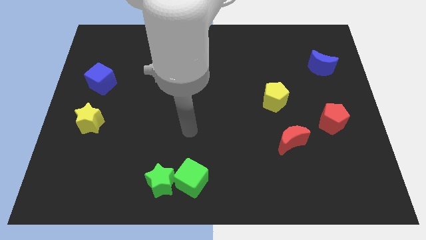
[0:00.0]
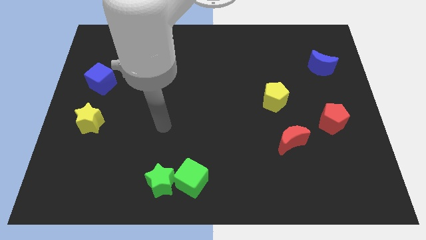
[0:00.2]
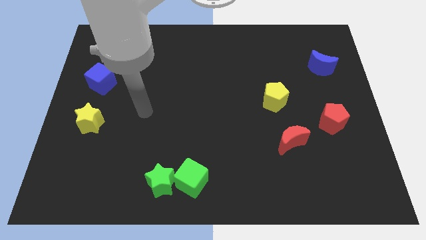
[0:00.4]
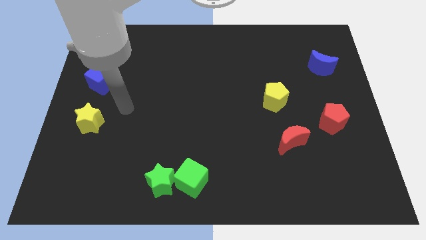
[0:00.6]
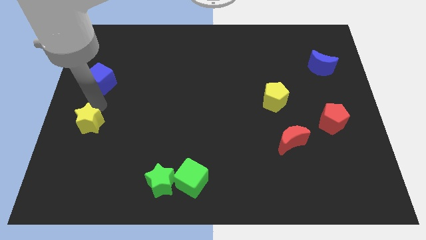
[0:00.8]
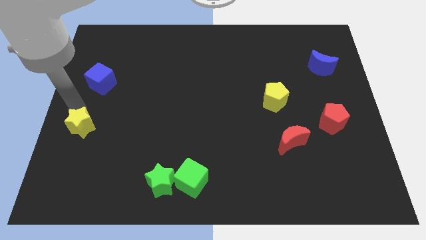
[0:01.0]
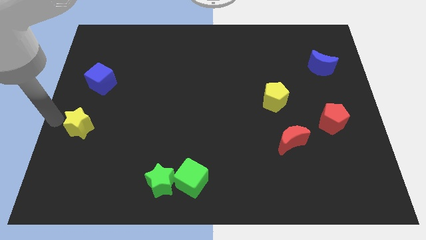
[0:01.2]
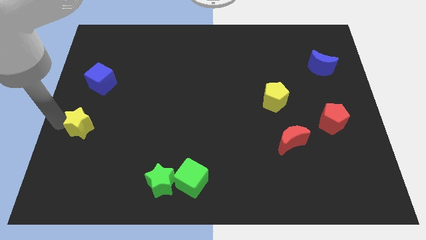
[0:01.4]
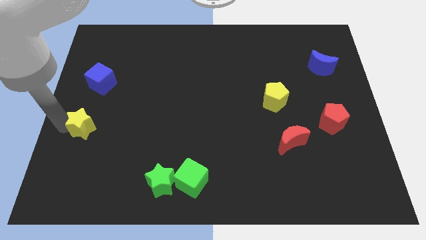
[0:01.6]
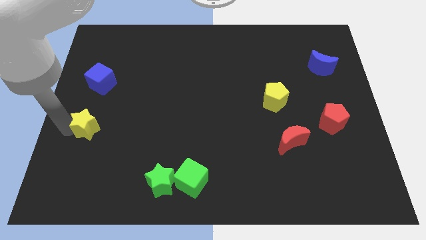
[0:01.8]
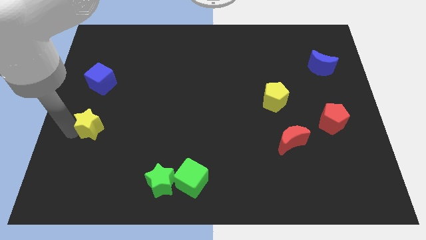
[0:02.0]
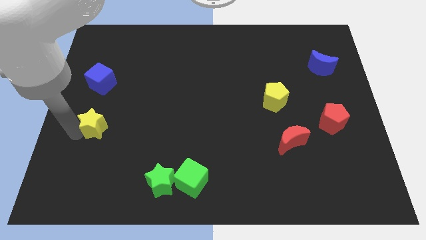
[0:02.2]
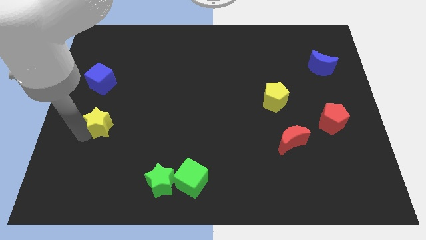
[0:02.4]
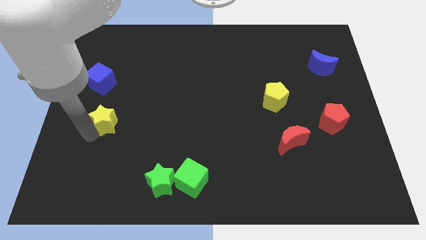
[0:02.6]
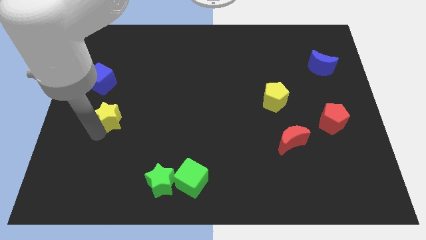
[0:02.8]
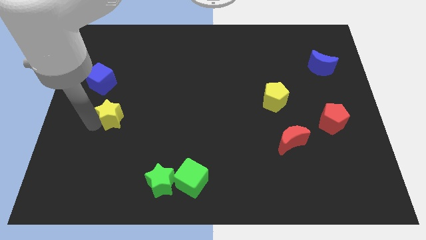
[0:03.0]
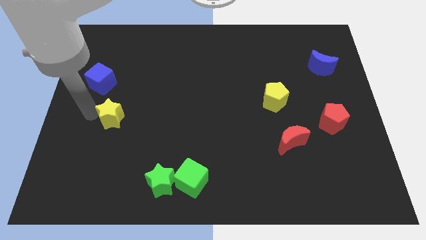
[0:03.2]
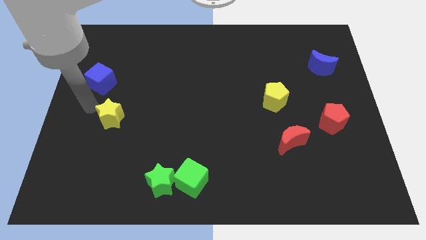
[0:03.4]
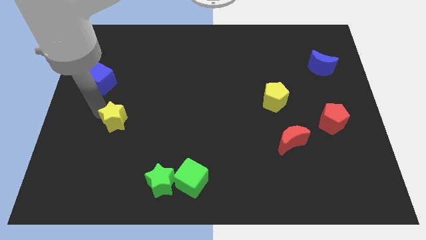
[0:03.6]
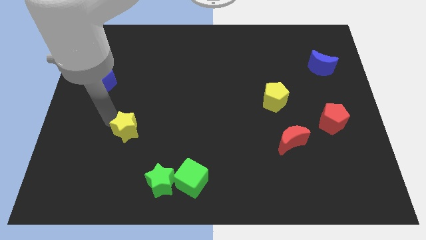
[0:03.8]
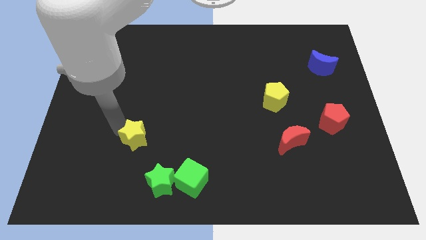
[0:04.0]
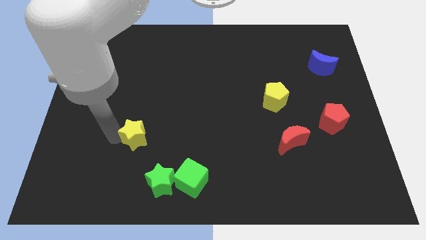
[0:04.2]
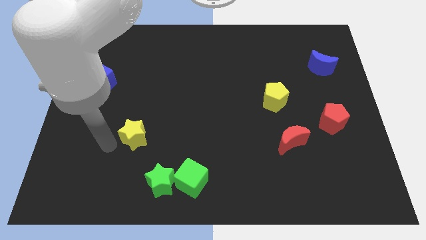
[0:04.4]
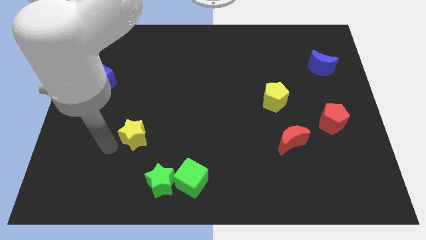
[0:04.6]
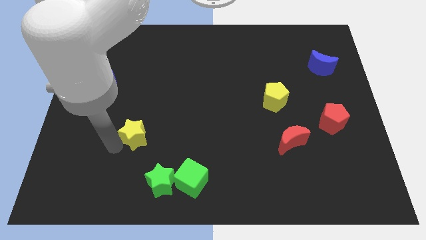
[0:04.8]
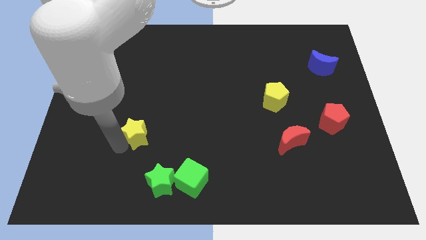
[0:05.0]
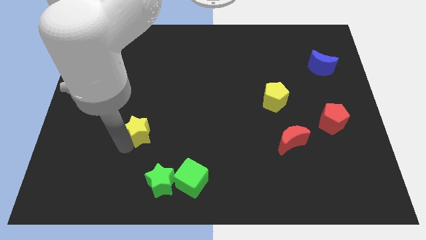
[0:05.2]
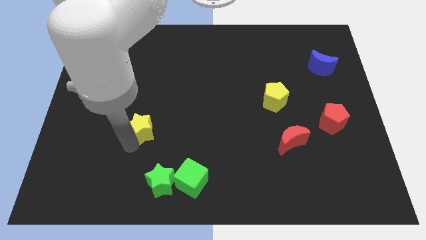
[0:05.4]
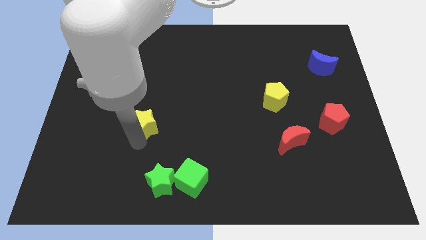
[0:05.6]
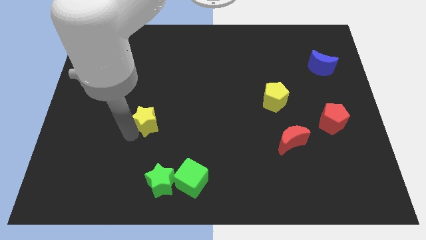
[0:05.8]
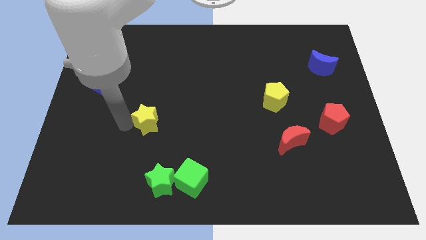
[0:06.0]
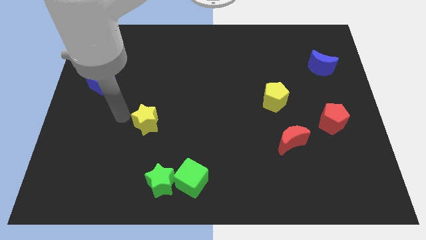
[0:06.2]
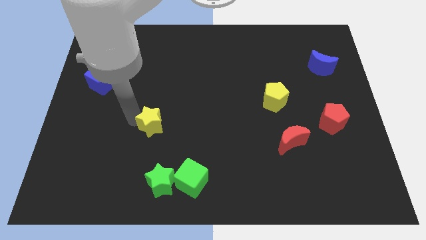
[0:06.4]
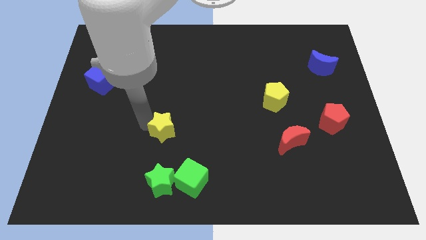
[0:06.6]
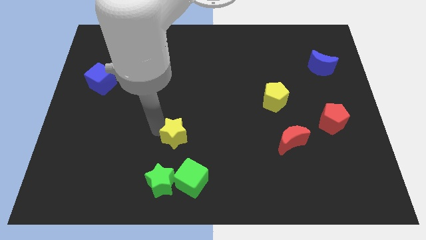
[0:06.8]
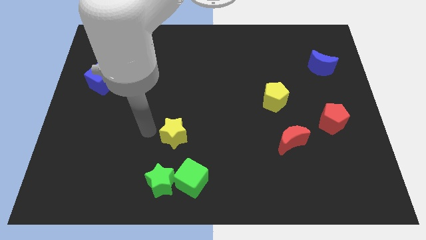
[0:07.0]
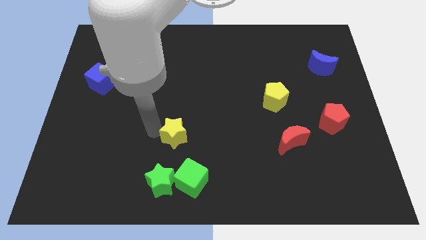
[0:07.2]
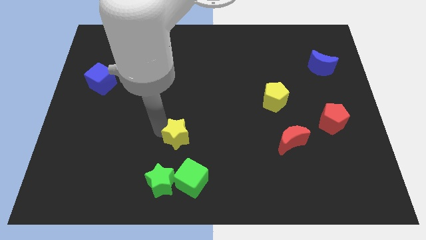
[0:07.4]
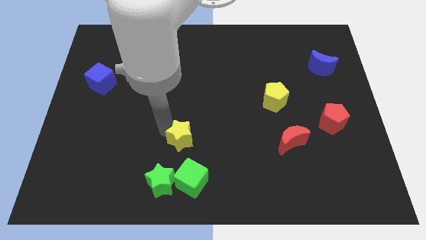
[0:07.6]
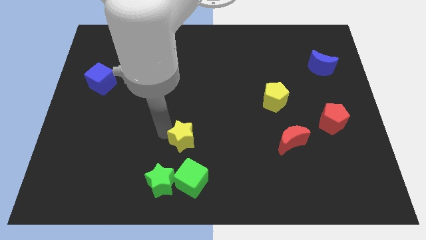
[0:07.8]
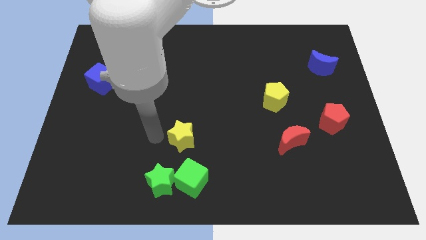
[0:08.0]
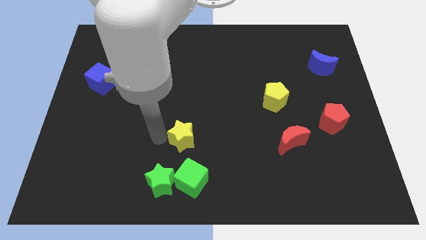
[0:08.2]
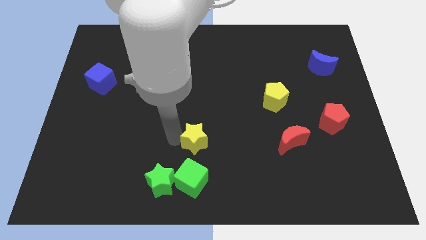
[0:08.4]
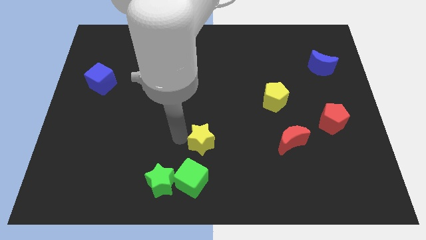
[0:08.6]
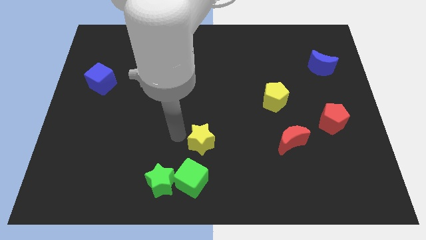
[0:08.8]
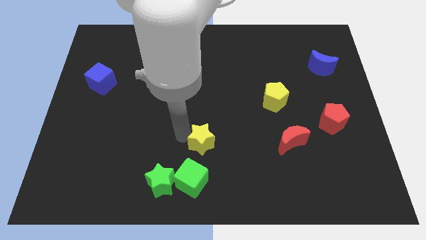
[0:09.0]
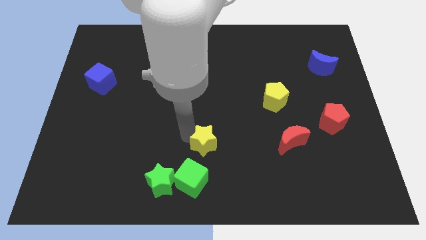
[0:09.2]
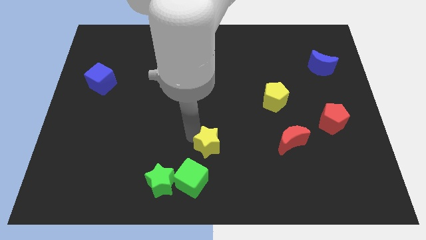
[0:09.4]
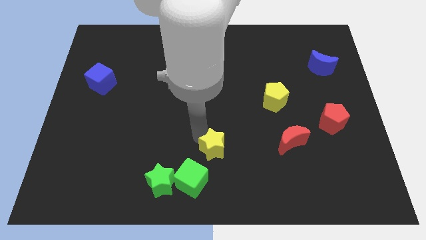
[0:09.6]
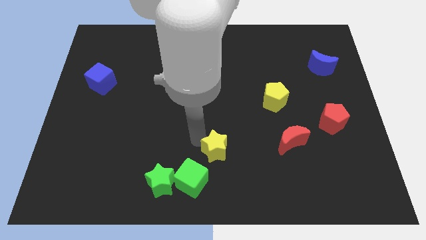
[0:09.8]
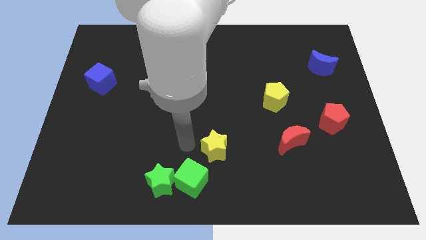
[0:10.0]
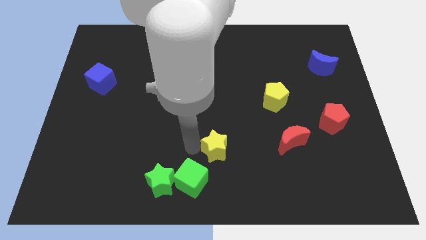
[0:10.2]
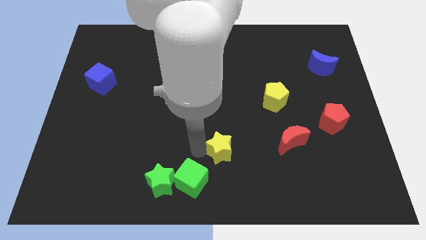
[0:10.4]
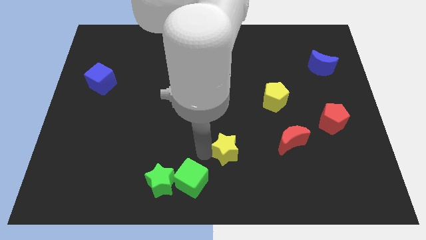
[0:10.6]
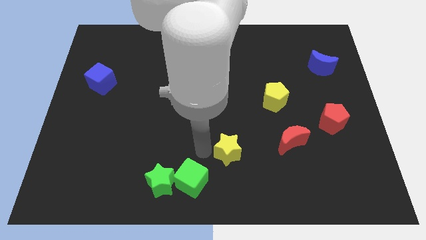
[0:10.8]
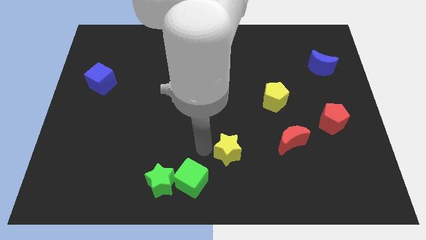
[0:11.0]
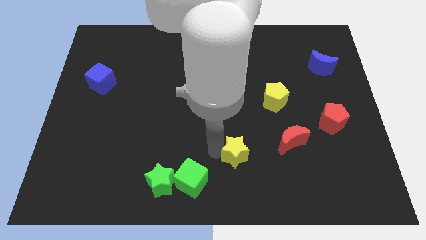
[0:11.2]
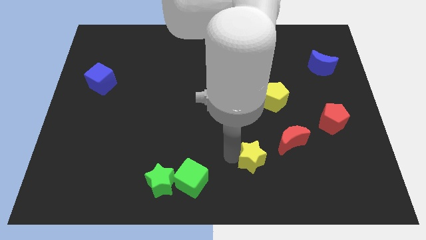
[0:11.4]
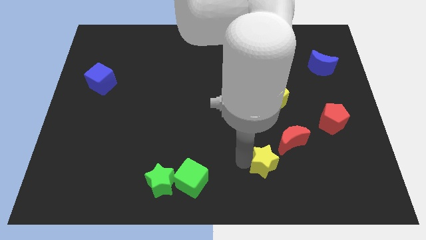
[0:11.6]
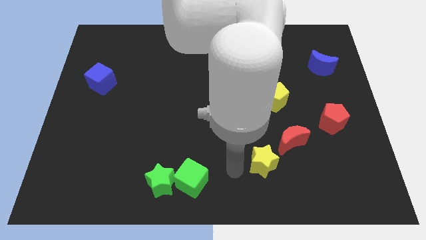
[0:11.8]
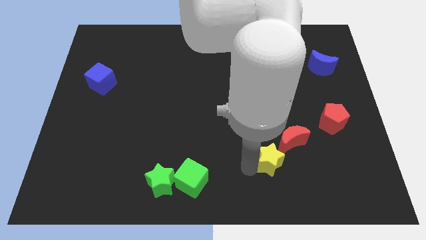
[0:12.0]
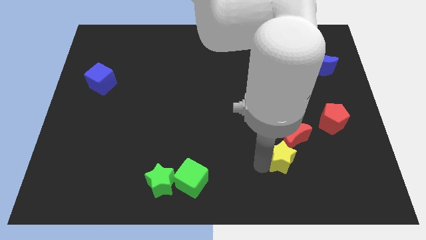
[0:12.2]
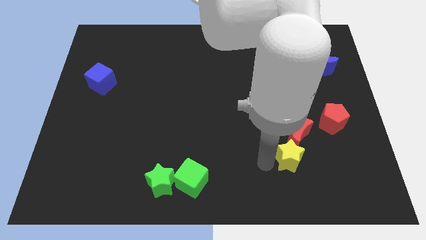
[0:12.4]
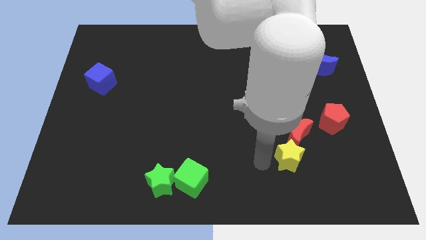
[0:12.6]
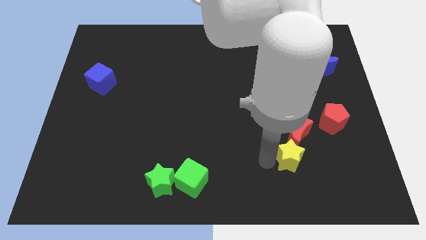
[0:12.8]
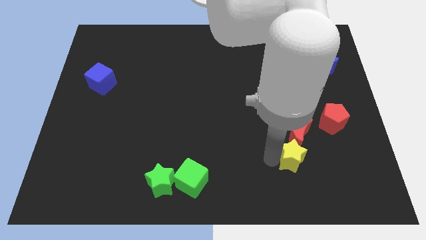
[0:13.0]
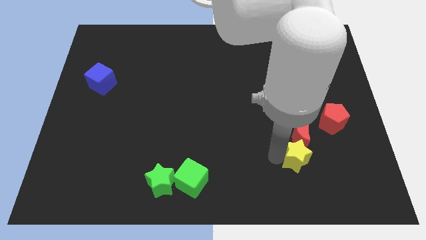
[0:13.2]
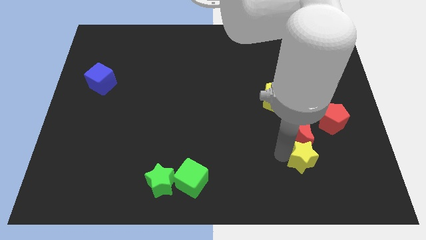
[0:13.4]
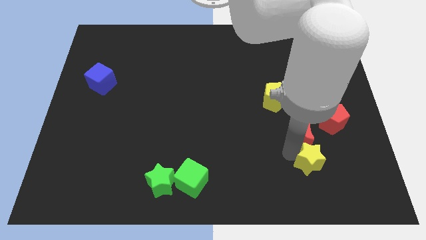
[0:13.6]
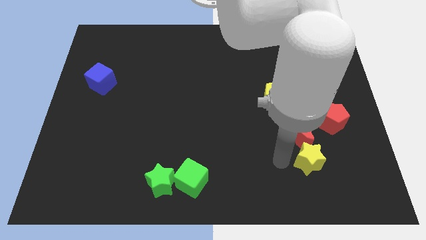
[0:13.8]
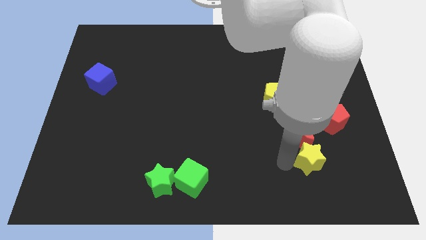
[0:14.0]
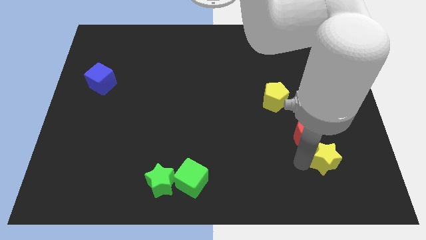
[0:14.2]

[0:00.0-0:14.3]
put the yellow star to the bottom of the red pentagon
